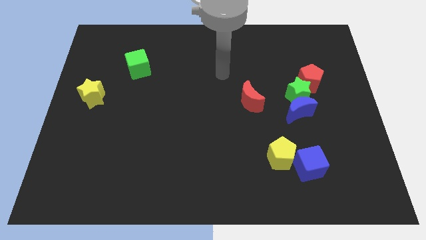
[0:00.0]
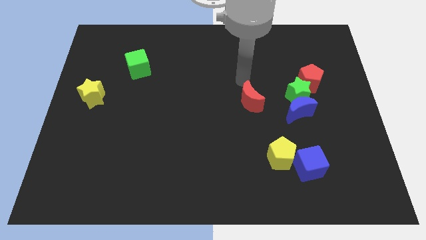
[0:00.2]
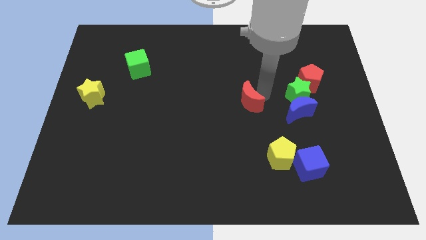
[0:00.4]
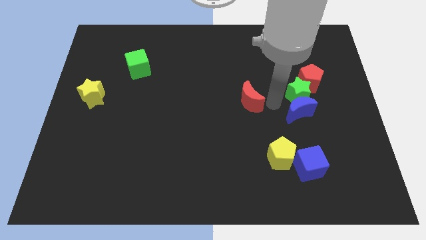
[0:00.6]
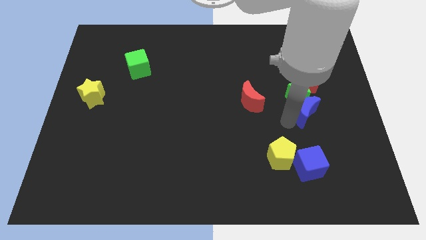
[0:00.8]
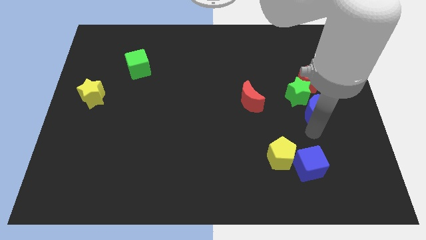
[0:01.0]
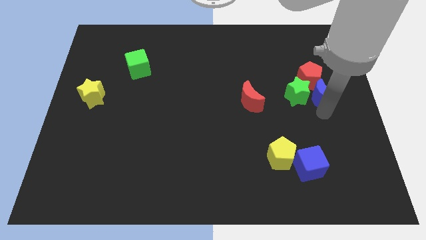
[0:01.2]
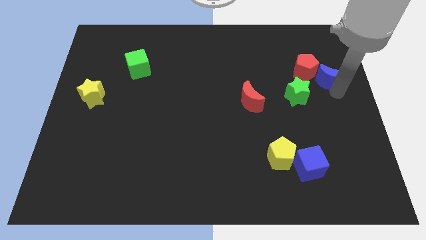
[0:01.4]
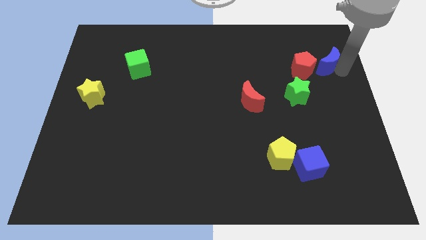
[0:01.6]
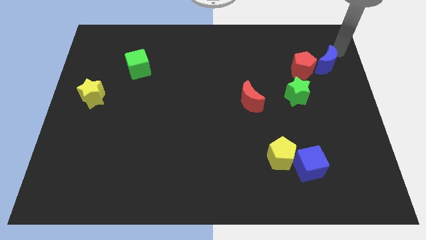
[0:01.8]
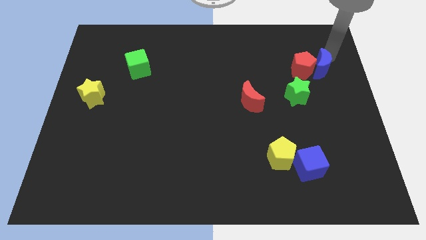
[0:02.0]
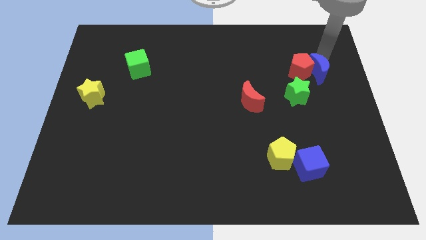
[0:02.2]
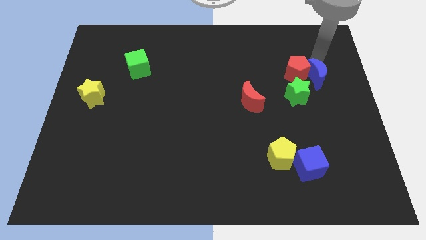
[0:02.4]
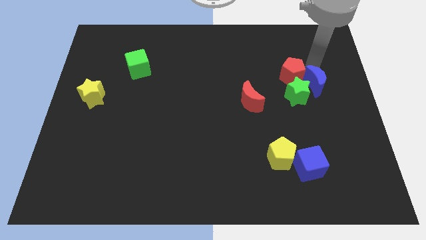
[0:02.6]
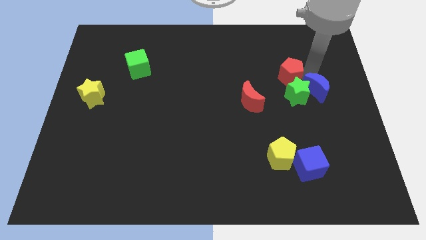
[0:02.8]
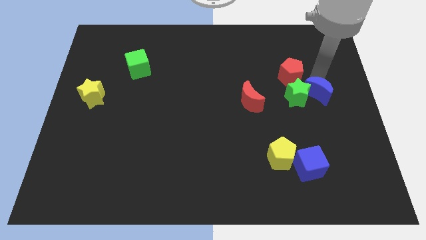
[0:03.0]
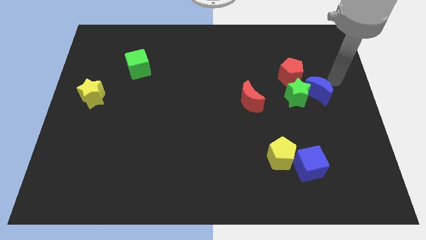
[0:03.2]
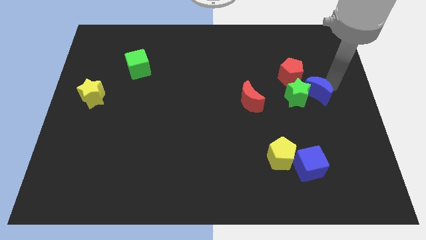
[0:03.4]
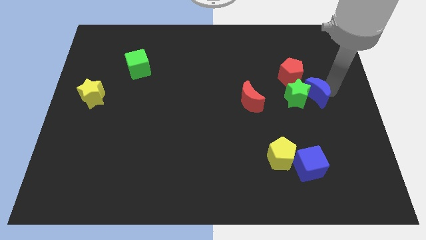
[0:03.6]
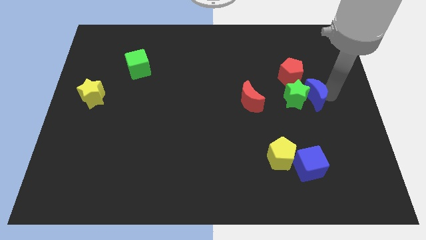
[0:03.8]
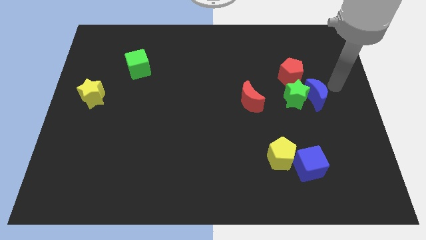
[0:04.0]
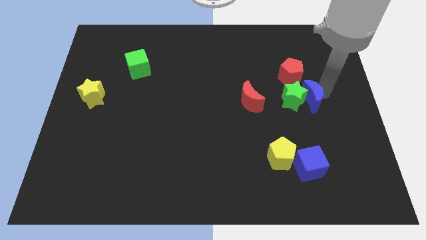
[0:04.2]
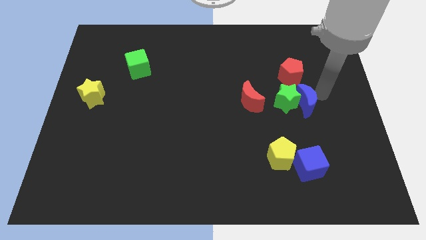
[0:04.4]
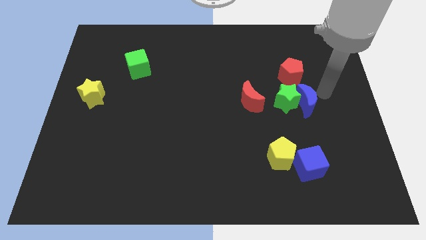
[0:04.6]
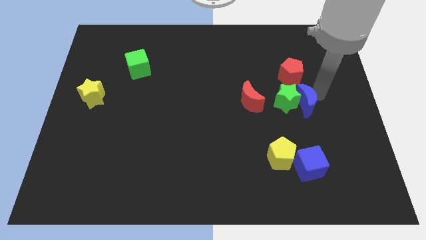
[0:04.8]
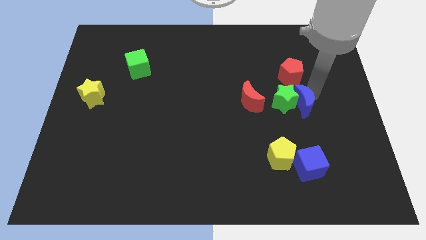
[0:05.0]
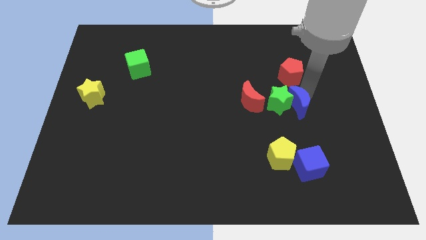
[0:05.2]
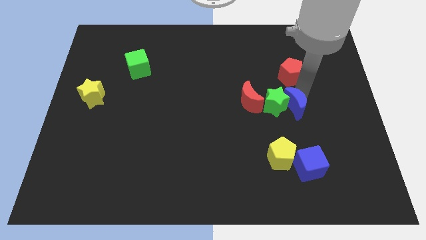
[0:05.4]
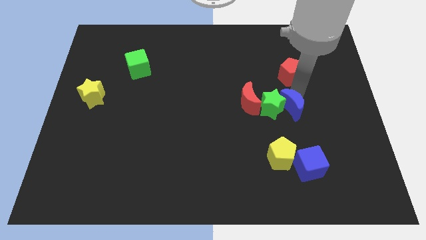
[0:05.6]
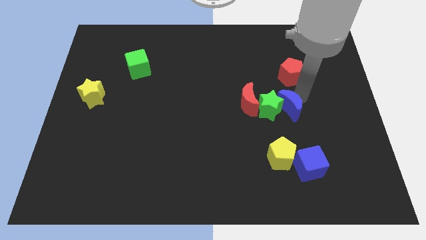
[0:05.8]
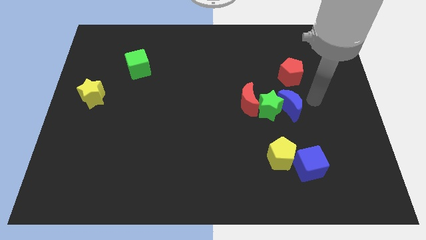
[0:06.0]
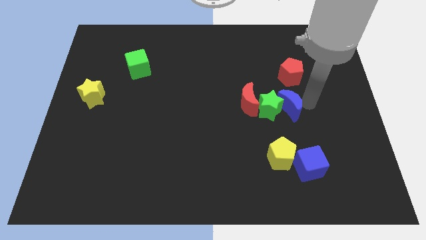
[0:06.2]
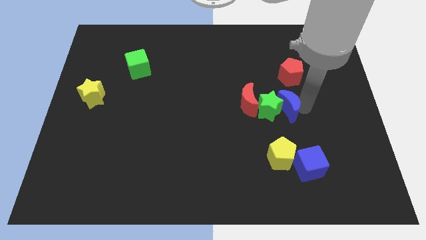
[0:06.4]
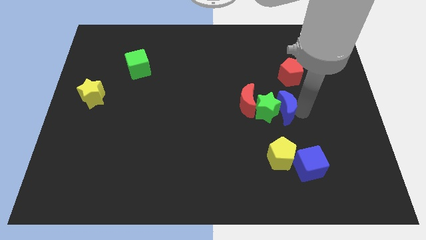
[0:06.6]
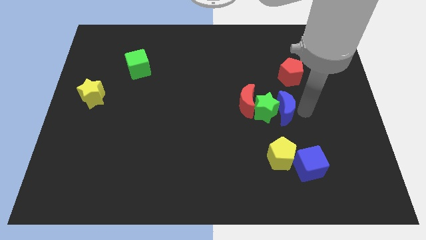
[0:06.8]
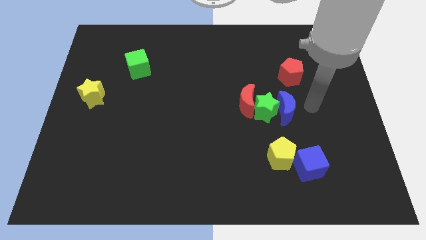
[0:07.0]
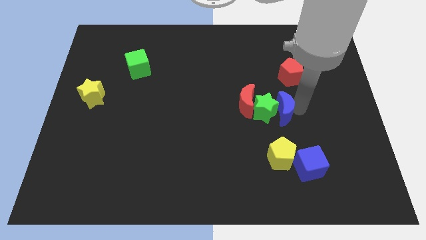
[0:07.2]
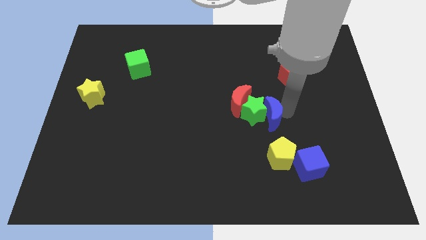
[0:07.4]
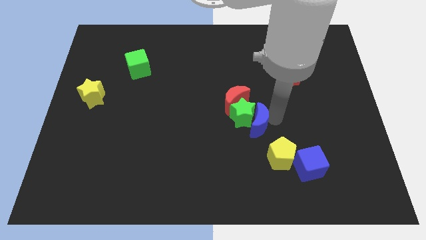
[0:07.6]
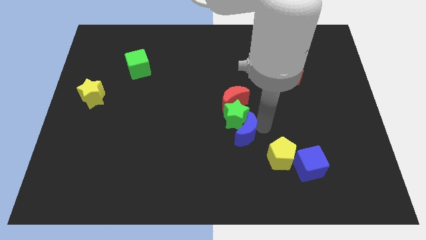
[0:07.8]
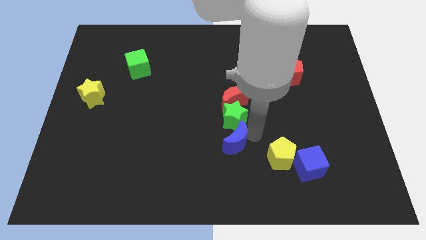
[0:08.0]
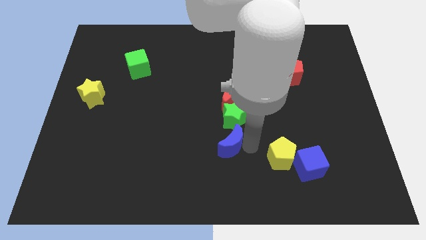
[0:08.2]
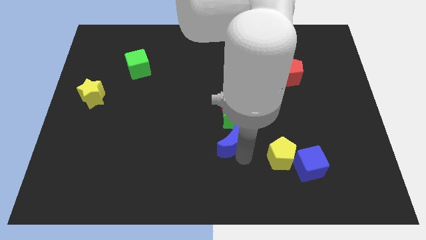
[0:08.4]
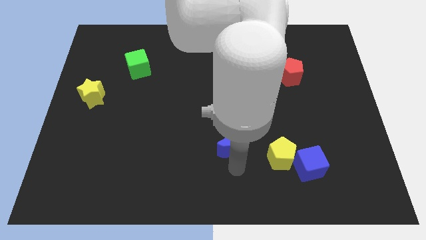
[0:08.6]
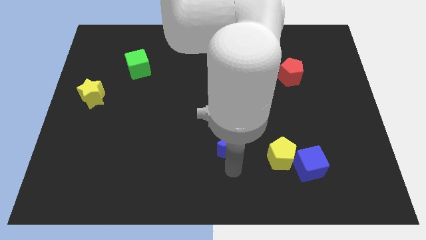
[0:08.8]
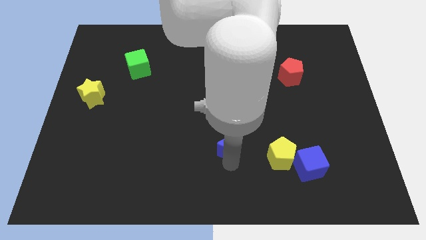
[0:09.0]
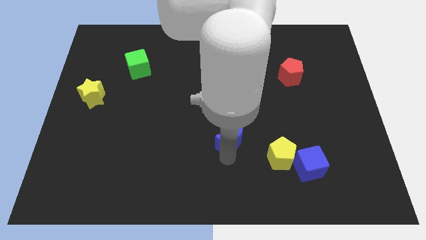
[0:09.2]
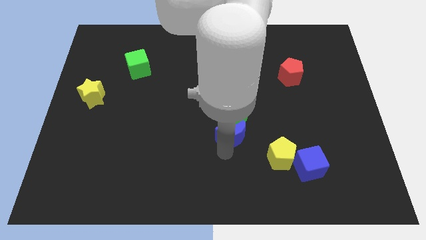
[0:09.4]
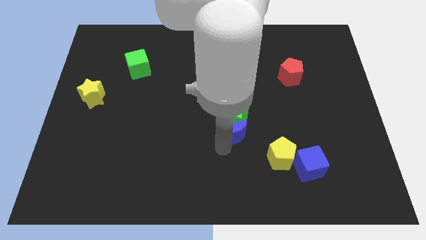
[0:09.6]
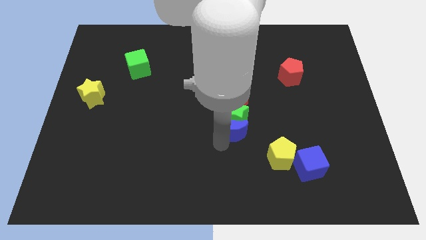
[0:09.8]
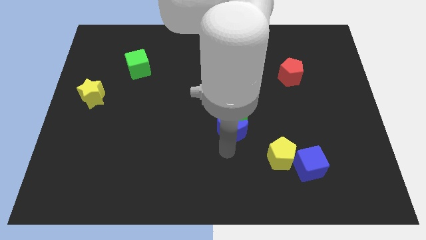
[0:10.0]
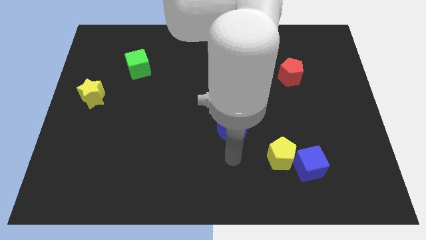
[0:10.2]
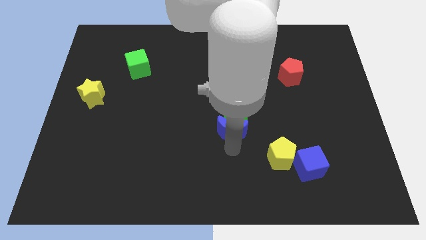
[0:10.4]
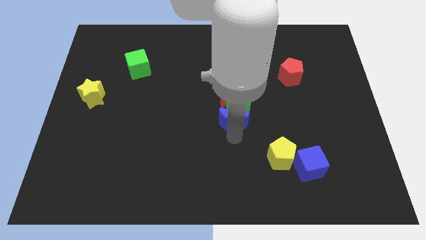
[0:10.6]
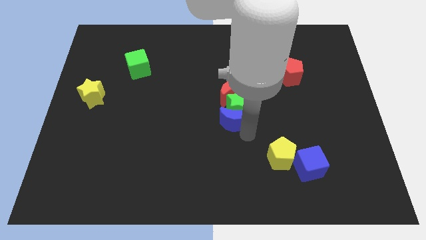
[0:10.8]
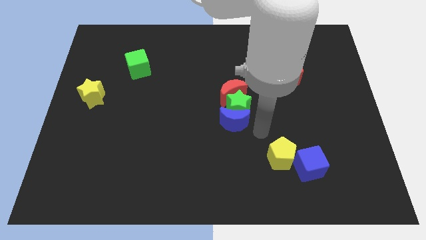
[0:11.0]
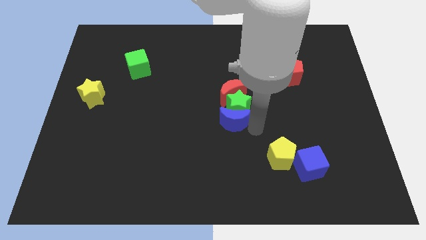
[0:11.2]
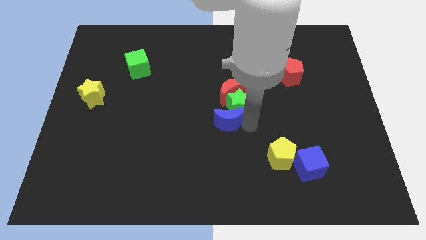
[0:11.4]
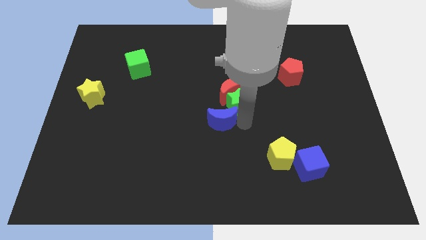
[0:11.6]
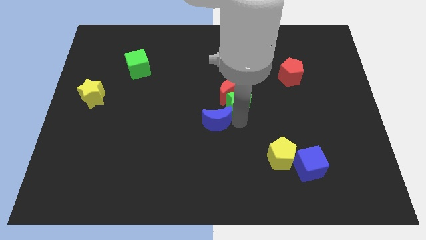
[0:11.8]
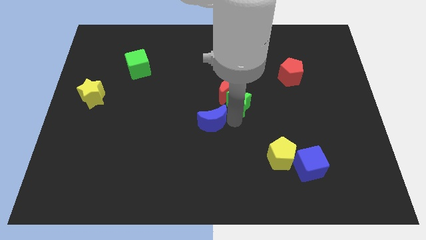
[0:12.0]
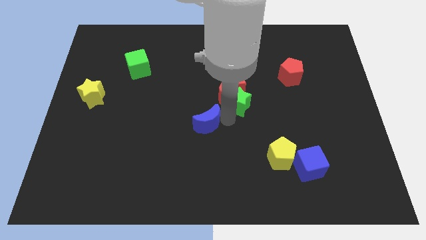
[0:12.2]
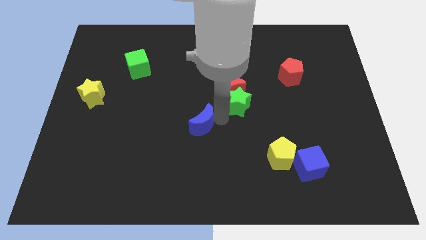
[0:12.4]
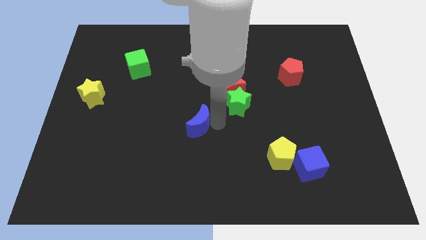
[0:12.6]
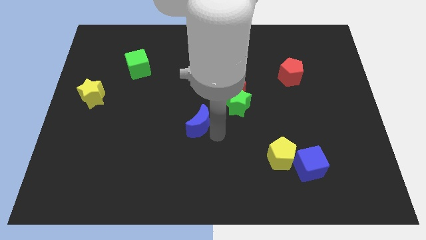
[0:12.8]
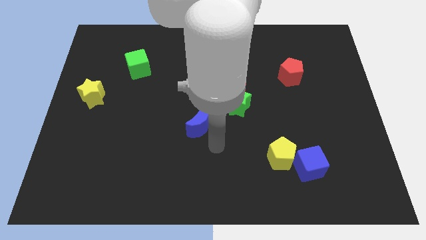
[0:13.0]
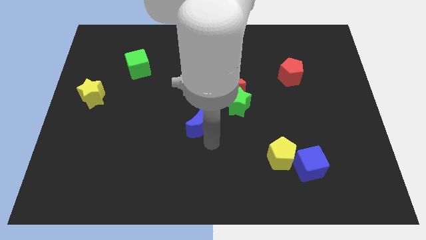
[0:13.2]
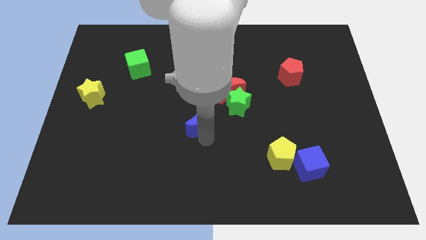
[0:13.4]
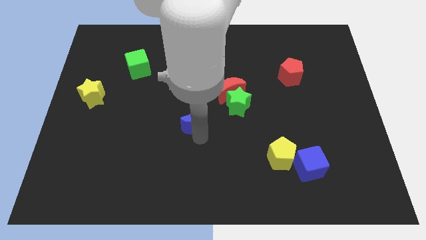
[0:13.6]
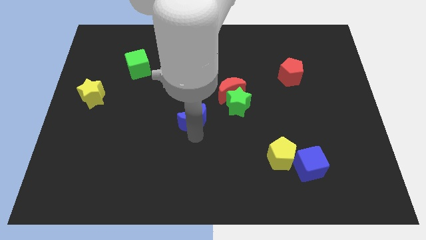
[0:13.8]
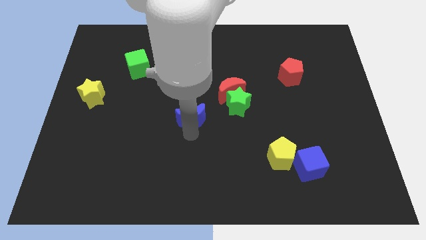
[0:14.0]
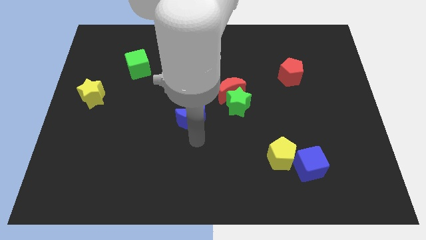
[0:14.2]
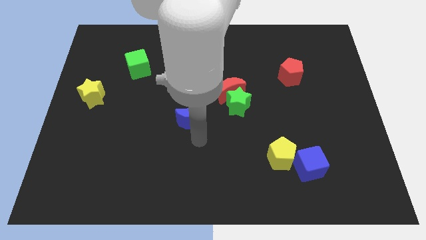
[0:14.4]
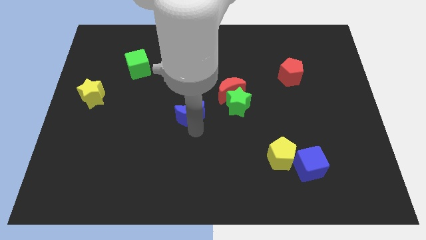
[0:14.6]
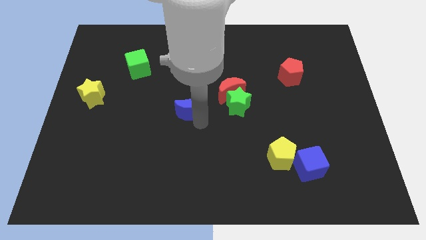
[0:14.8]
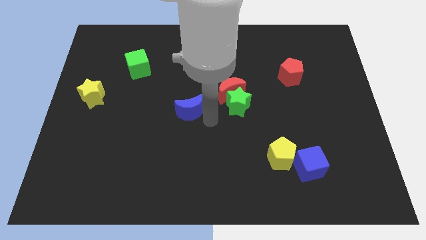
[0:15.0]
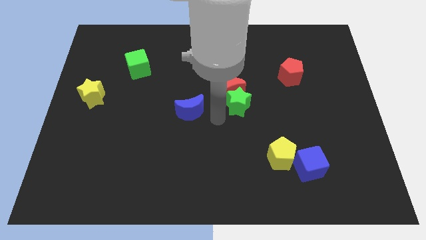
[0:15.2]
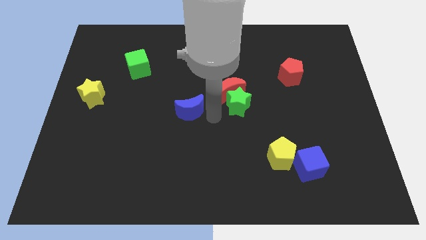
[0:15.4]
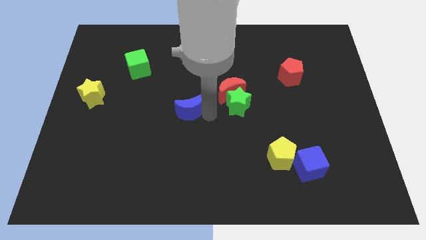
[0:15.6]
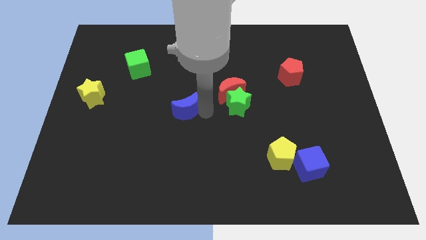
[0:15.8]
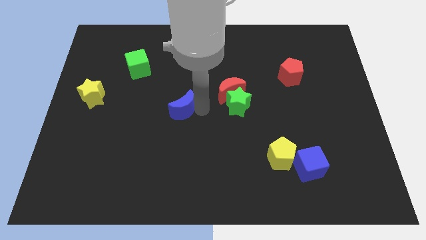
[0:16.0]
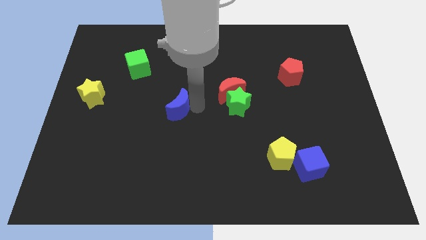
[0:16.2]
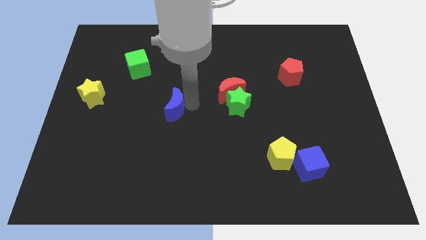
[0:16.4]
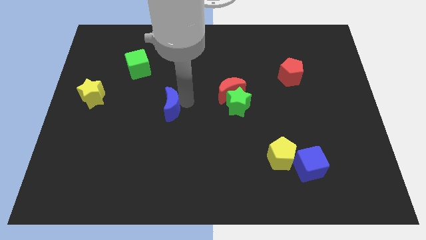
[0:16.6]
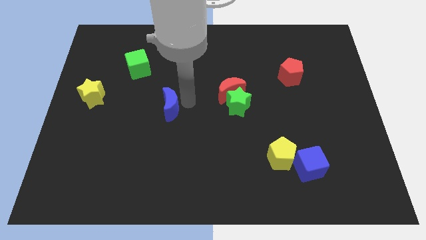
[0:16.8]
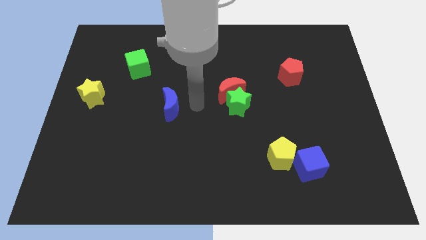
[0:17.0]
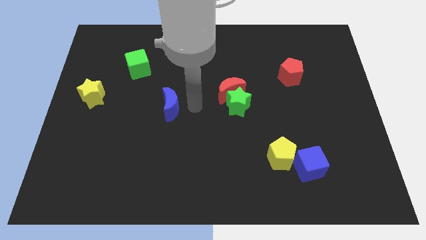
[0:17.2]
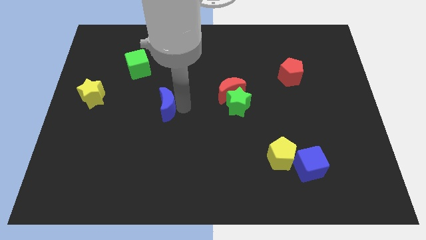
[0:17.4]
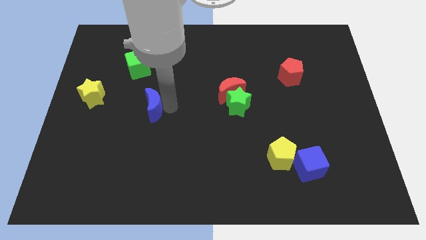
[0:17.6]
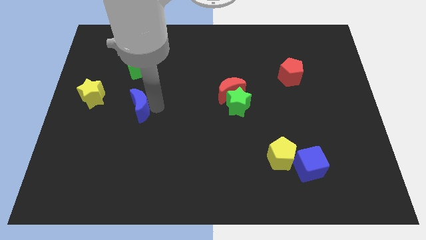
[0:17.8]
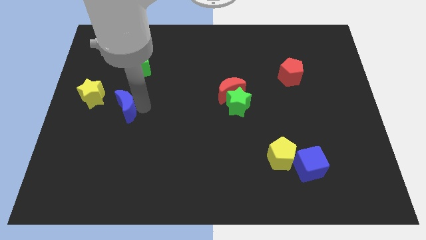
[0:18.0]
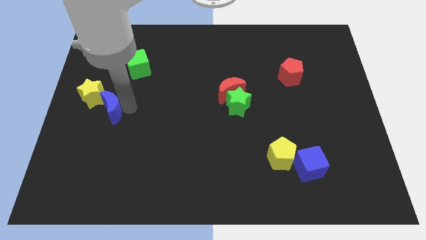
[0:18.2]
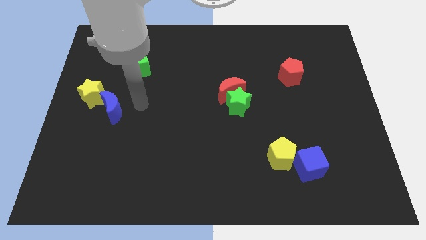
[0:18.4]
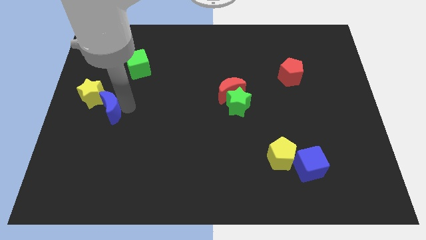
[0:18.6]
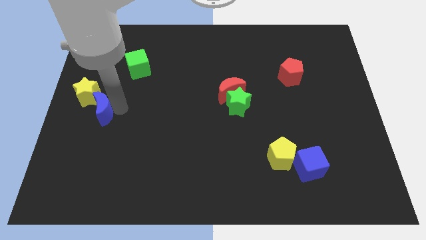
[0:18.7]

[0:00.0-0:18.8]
move the blue moon to the left side of the board
